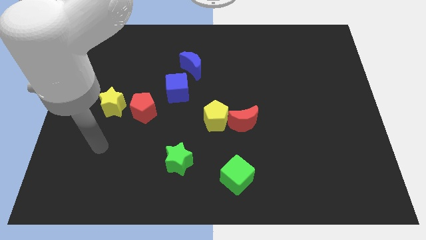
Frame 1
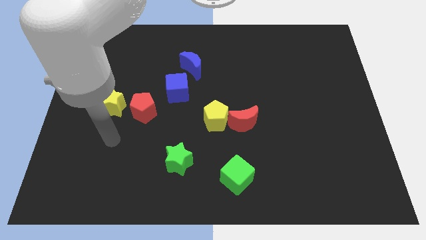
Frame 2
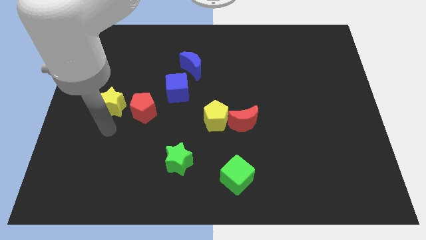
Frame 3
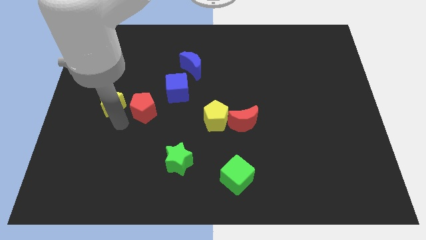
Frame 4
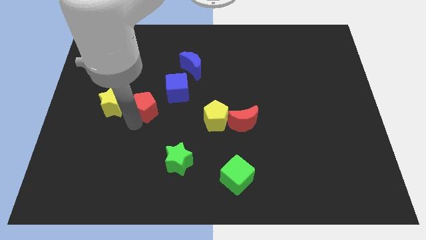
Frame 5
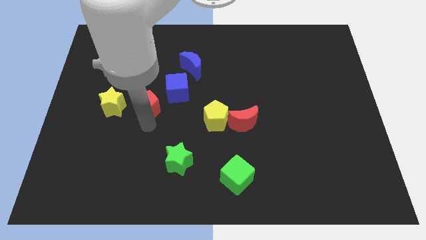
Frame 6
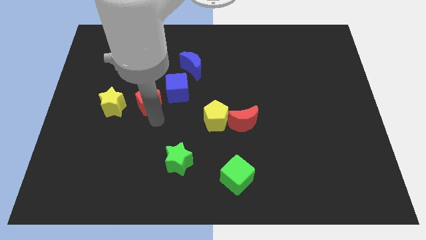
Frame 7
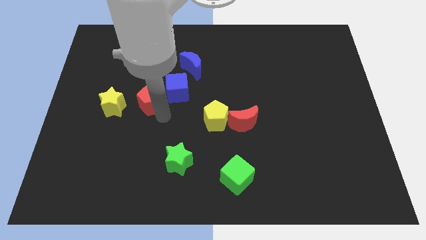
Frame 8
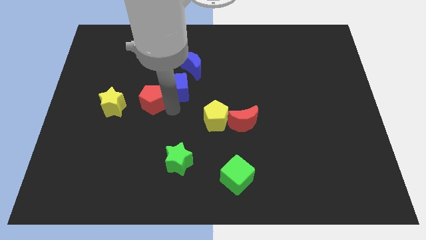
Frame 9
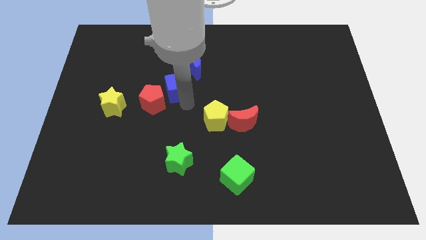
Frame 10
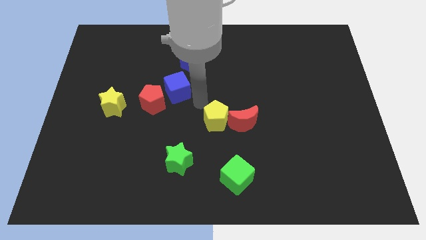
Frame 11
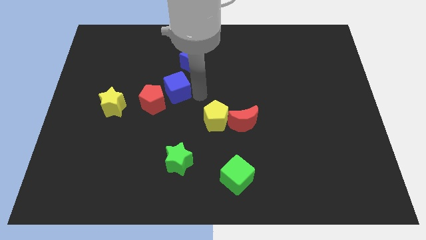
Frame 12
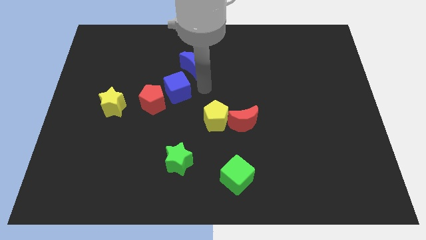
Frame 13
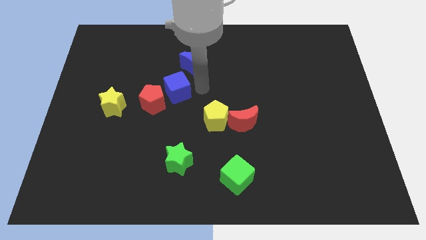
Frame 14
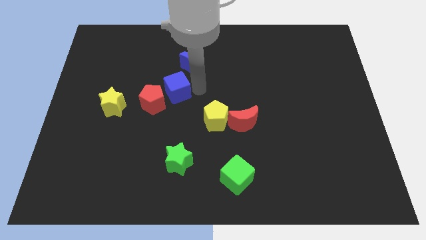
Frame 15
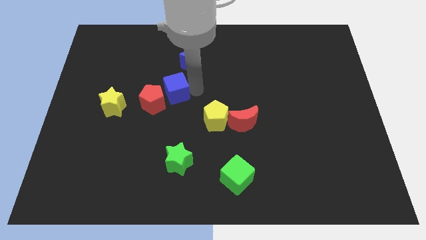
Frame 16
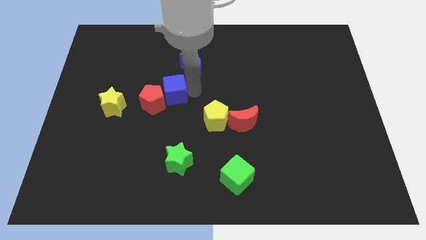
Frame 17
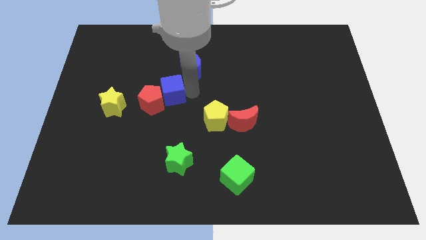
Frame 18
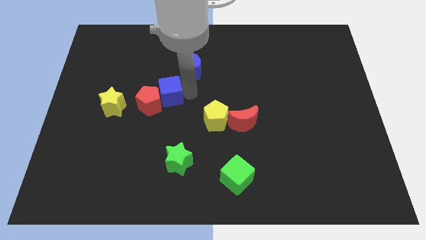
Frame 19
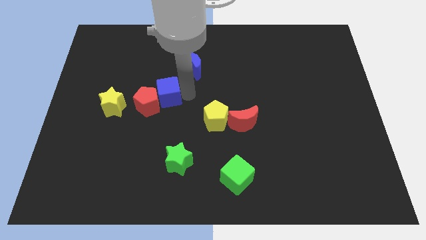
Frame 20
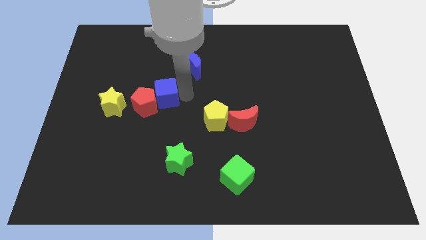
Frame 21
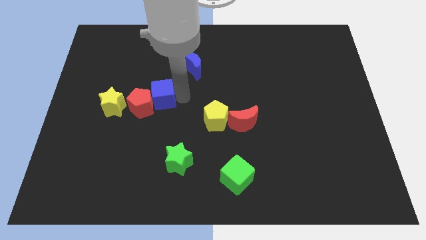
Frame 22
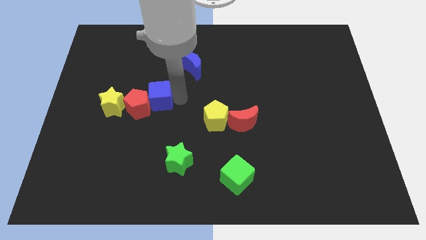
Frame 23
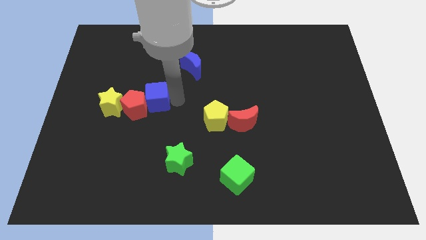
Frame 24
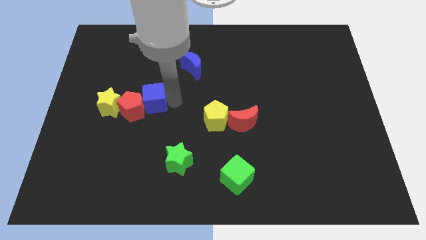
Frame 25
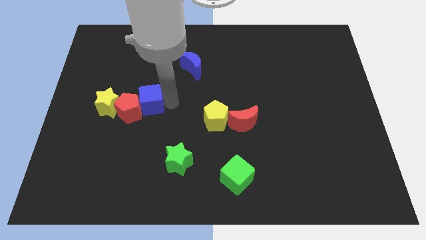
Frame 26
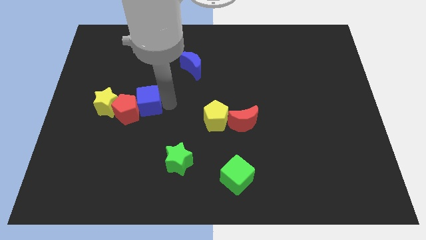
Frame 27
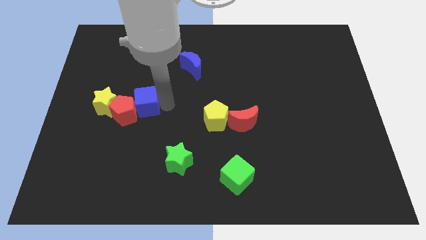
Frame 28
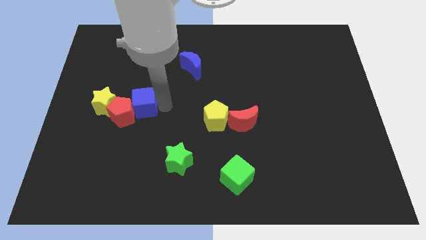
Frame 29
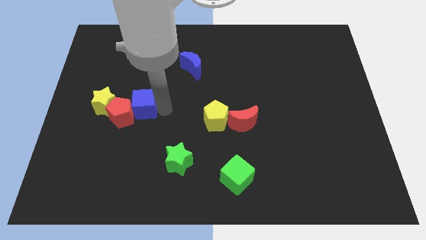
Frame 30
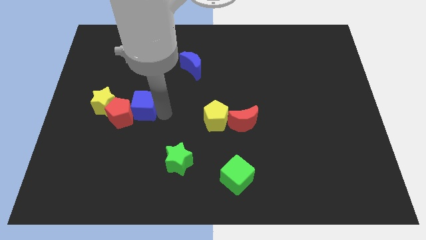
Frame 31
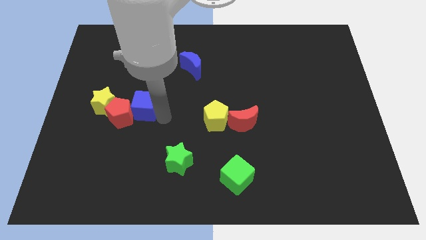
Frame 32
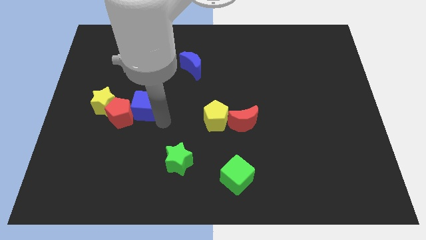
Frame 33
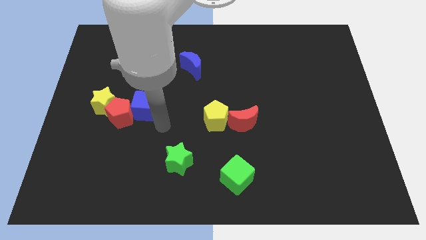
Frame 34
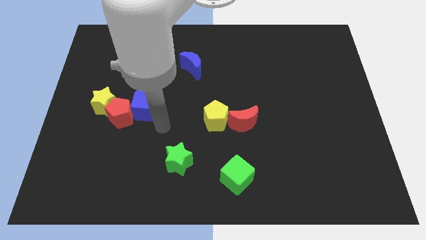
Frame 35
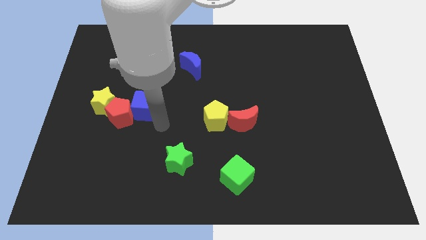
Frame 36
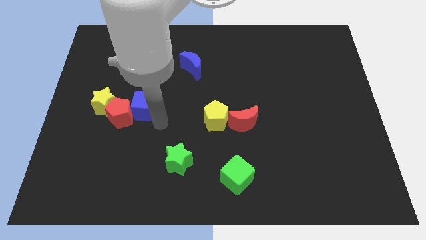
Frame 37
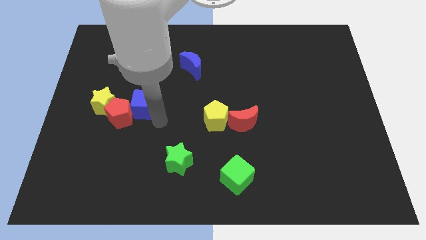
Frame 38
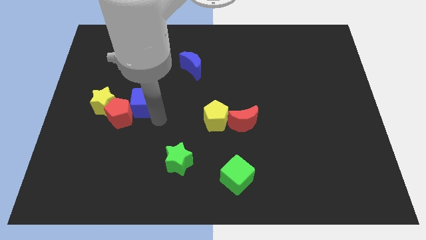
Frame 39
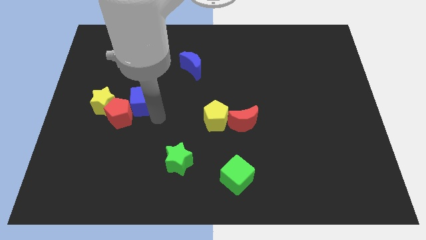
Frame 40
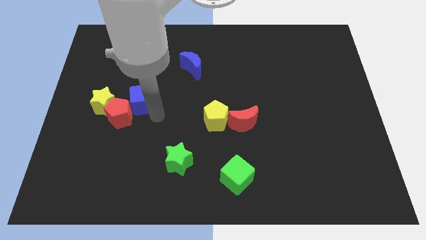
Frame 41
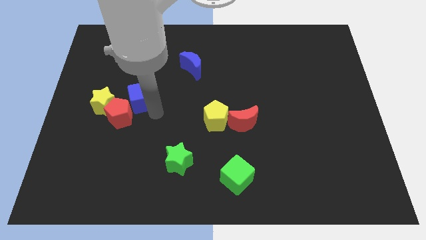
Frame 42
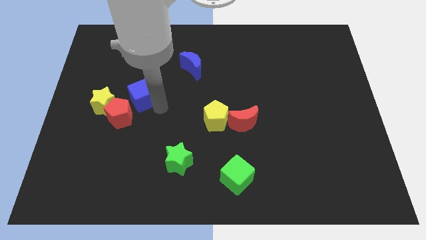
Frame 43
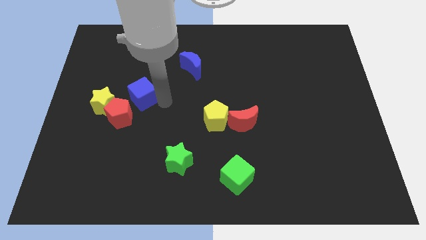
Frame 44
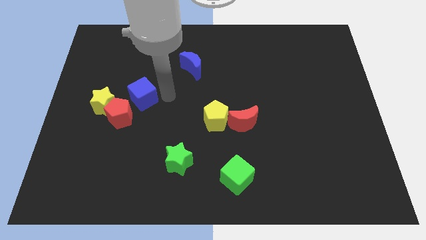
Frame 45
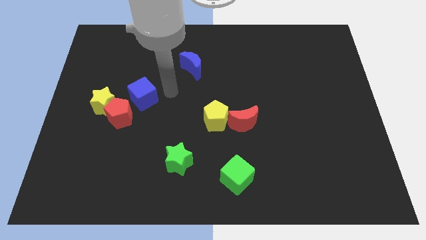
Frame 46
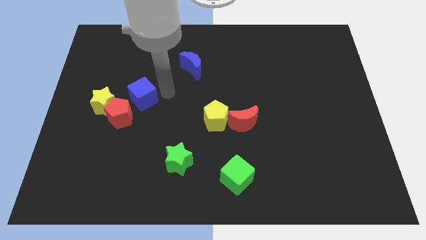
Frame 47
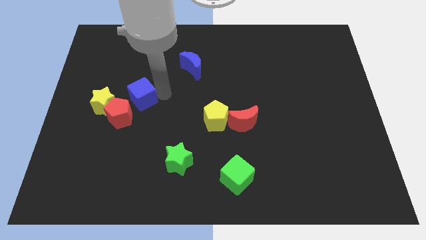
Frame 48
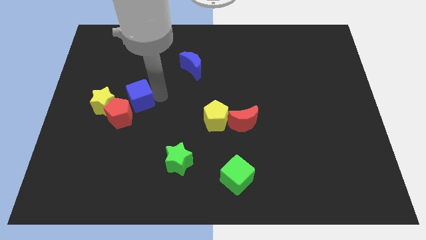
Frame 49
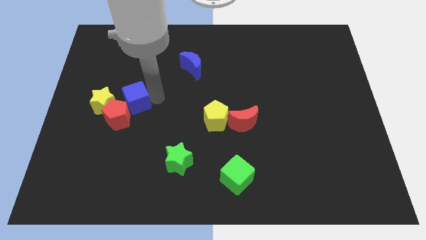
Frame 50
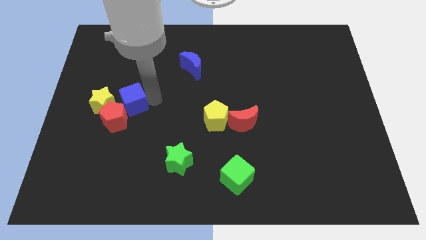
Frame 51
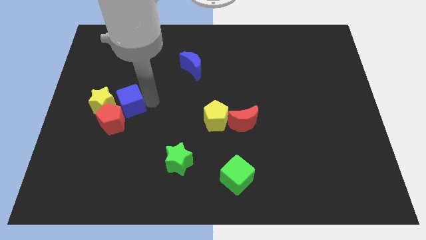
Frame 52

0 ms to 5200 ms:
slide the blue cube next to the yellow star

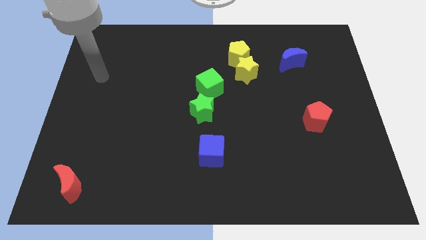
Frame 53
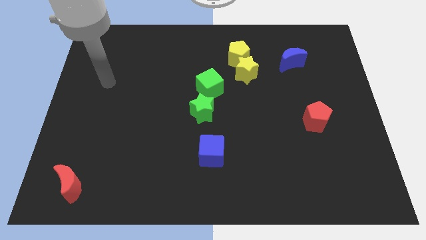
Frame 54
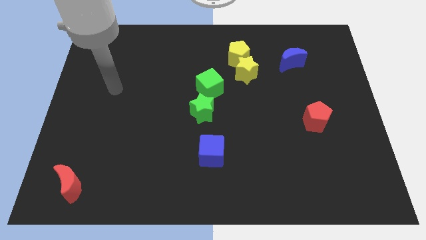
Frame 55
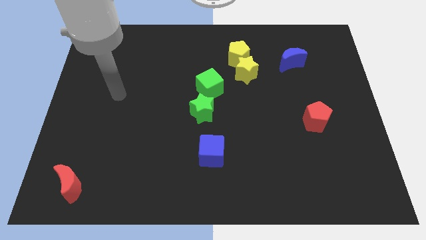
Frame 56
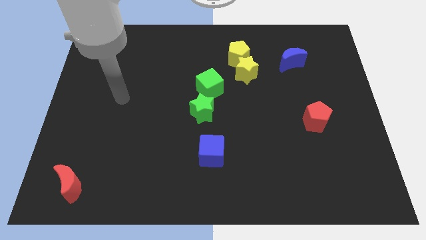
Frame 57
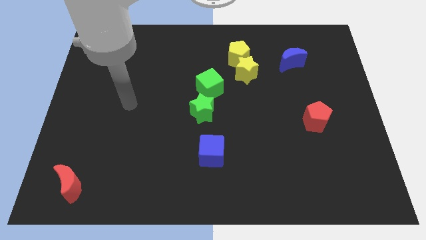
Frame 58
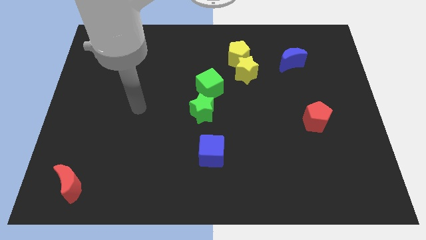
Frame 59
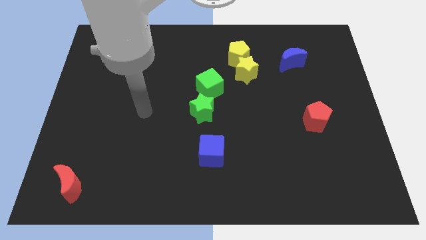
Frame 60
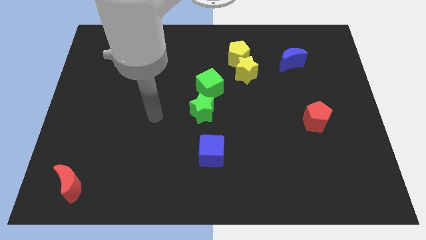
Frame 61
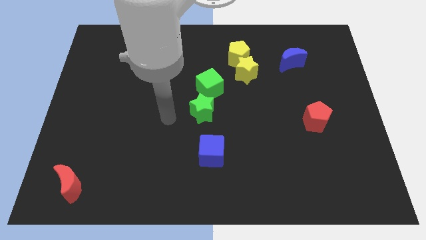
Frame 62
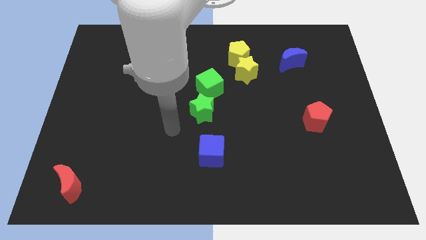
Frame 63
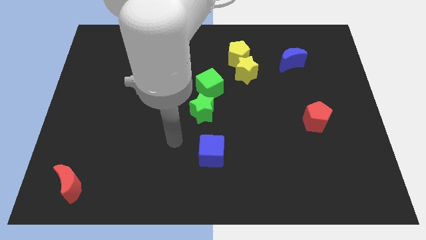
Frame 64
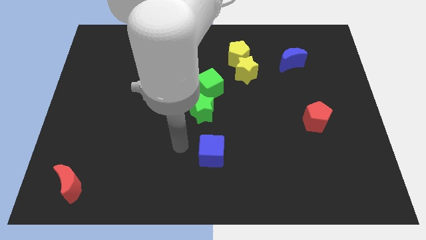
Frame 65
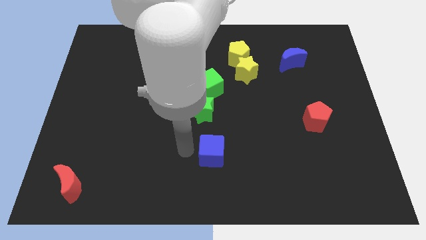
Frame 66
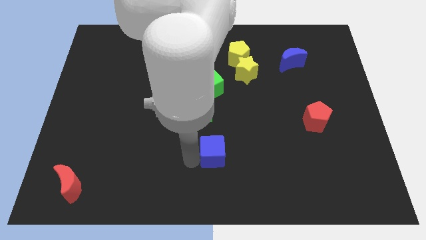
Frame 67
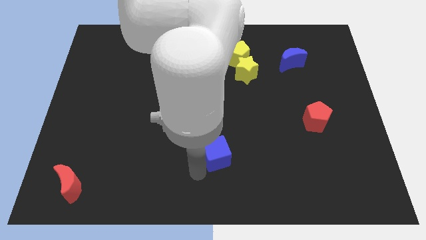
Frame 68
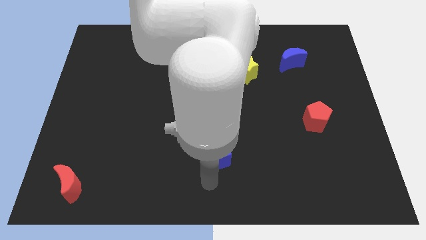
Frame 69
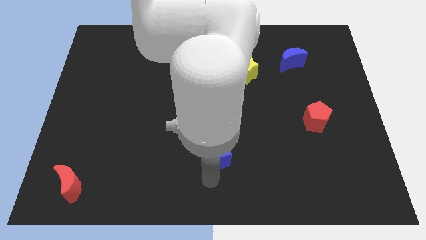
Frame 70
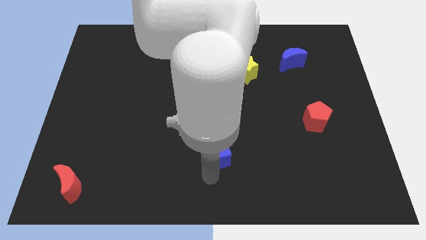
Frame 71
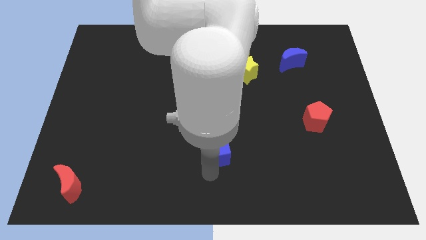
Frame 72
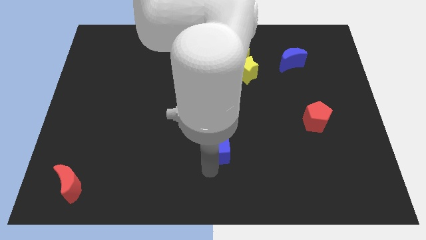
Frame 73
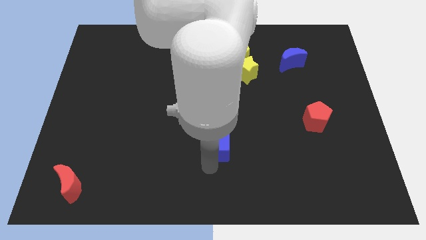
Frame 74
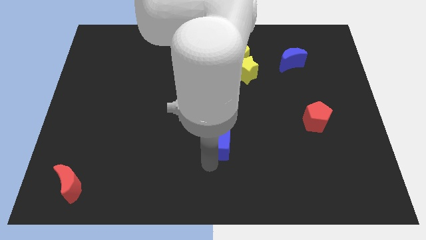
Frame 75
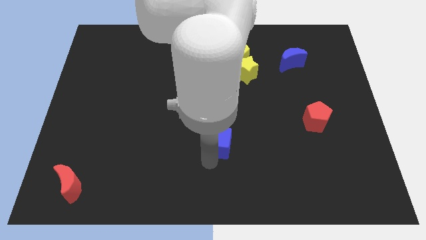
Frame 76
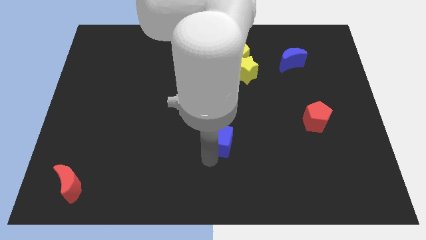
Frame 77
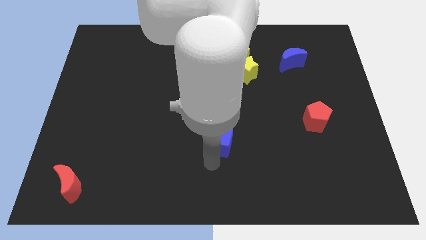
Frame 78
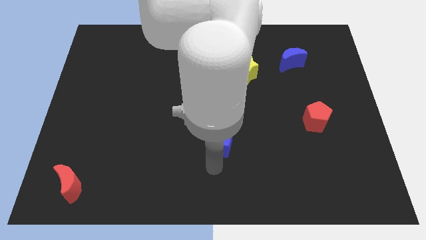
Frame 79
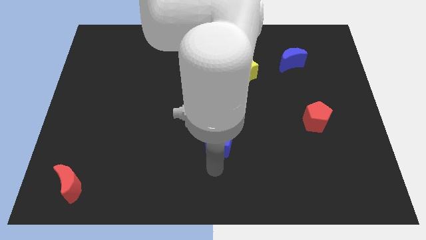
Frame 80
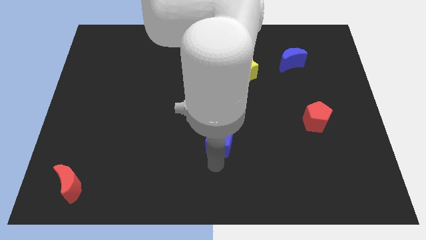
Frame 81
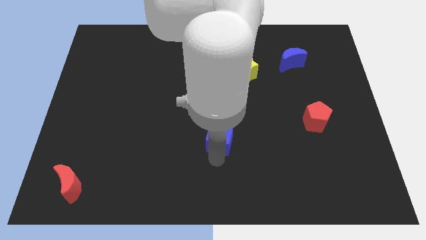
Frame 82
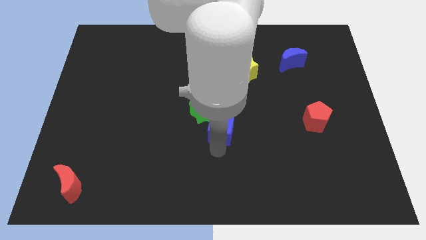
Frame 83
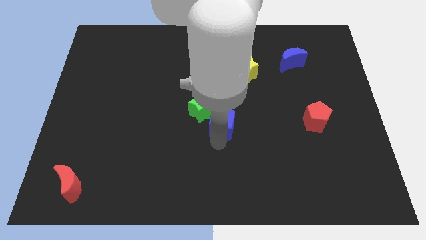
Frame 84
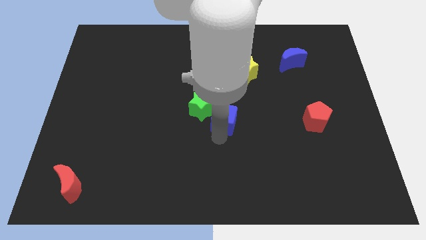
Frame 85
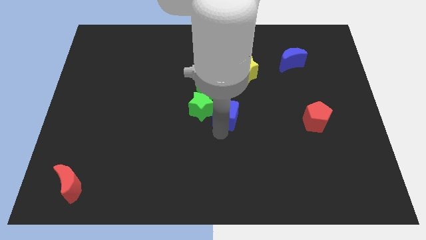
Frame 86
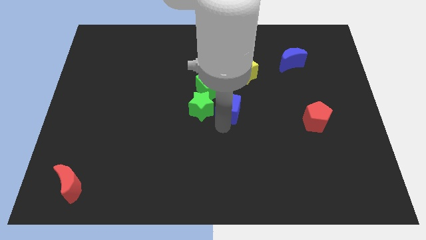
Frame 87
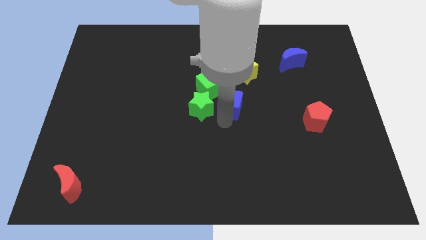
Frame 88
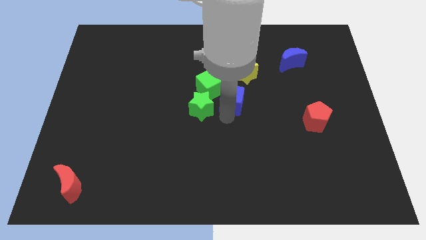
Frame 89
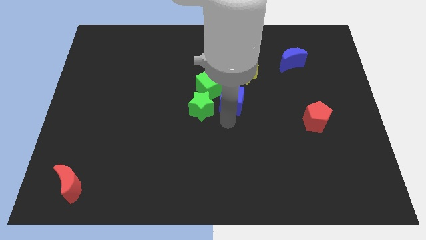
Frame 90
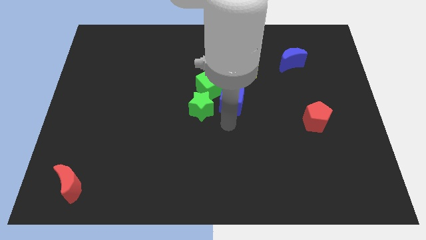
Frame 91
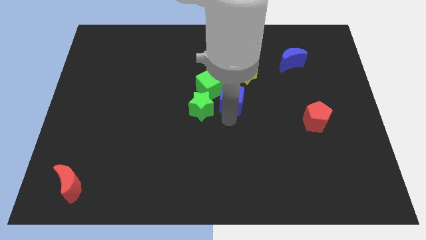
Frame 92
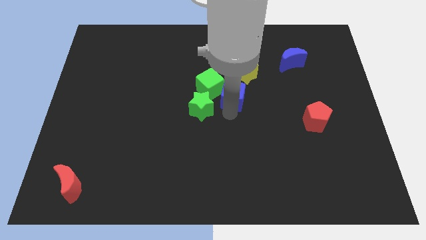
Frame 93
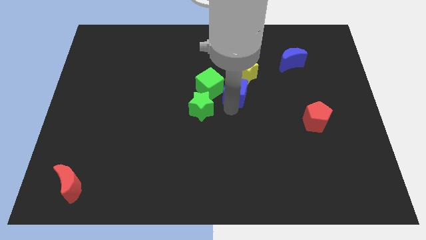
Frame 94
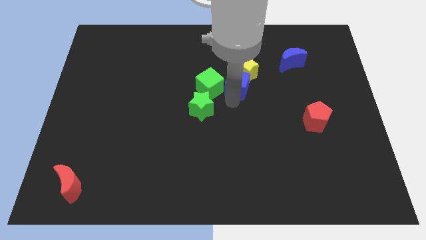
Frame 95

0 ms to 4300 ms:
slide the blue cube to the yellow star
